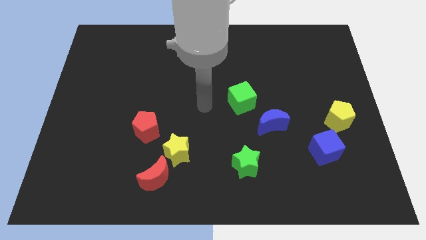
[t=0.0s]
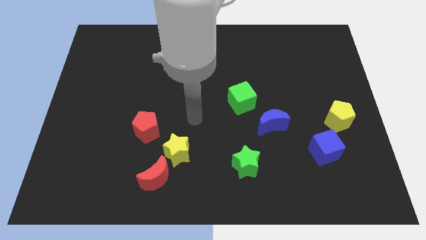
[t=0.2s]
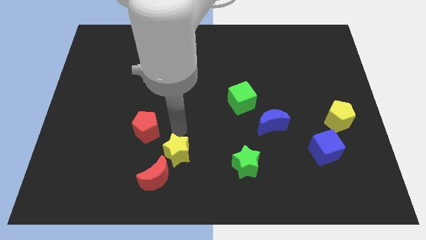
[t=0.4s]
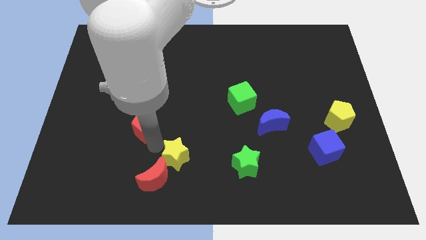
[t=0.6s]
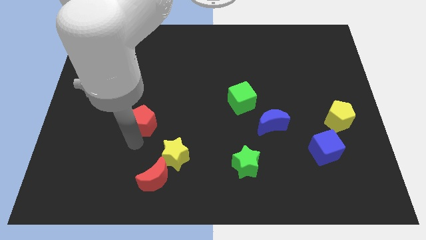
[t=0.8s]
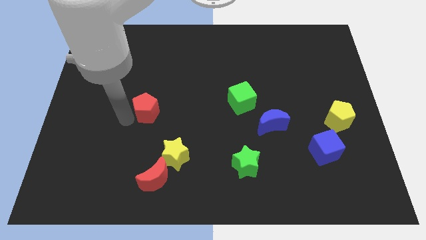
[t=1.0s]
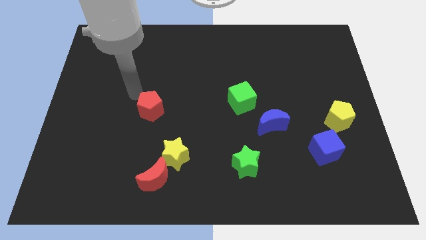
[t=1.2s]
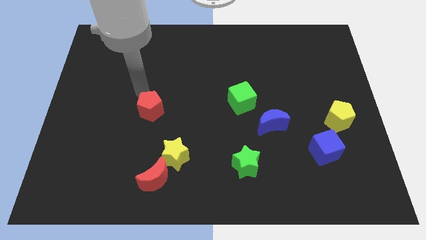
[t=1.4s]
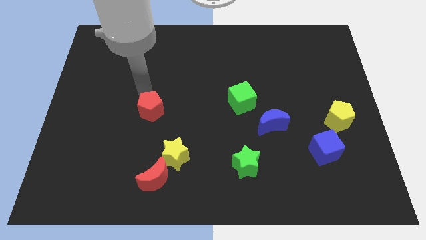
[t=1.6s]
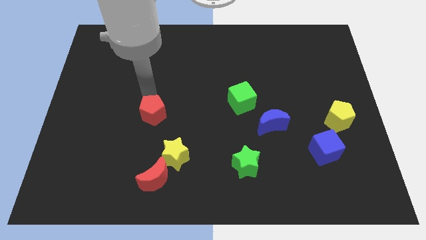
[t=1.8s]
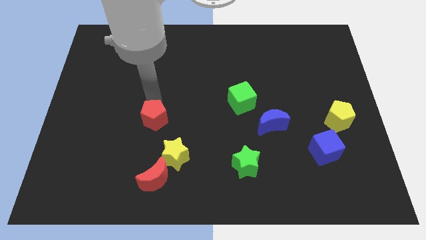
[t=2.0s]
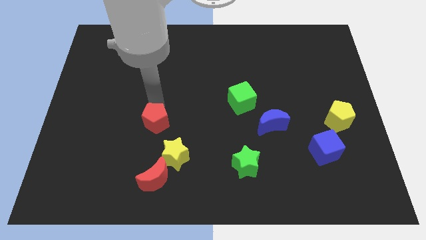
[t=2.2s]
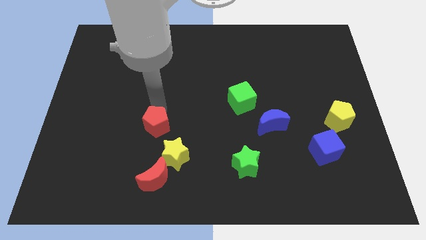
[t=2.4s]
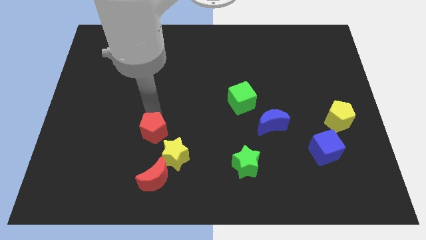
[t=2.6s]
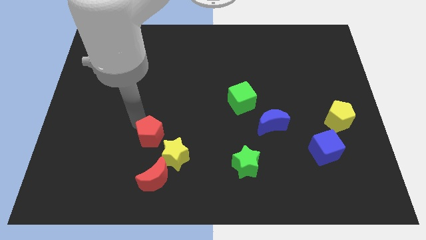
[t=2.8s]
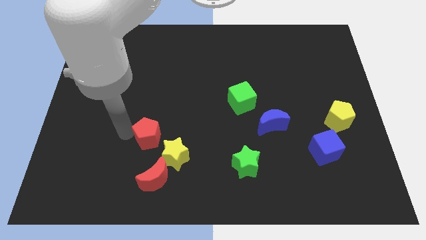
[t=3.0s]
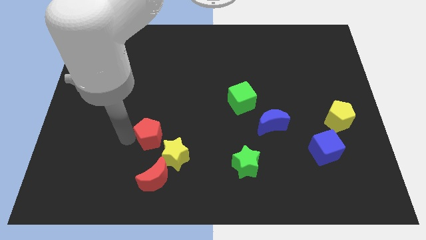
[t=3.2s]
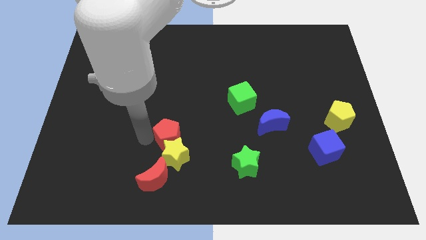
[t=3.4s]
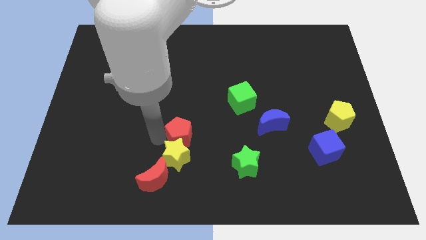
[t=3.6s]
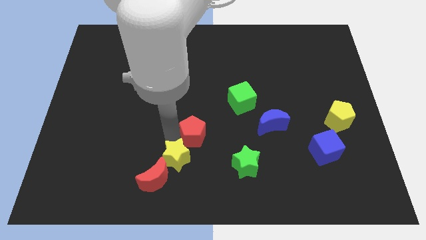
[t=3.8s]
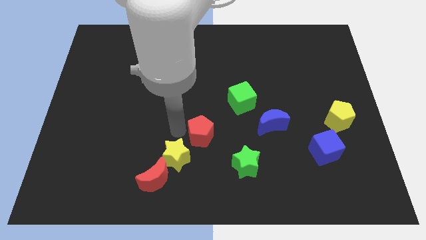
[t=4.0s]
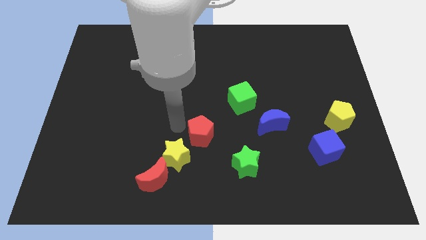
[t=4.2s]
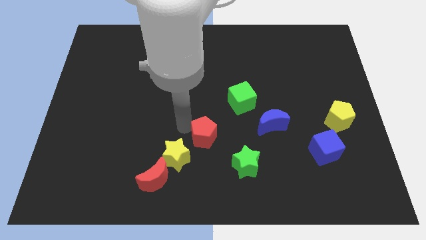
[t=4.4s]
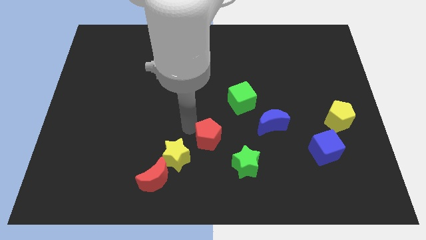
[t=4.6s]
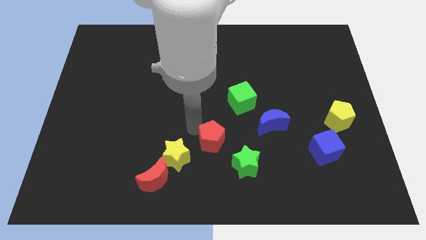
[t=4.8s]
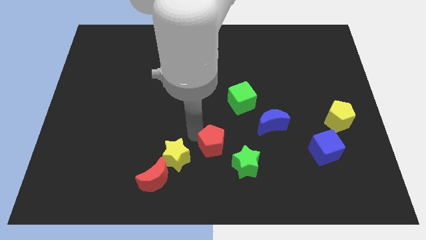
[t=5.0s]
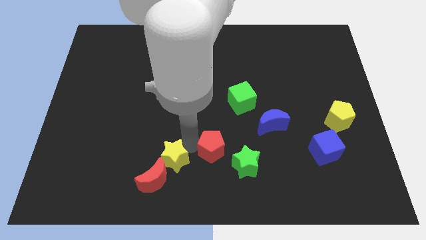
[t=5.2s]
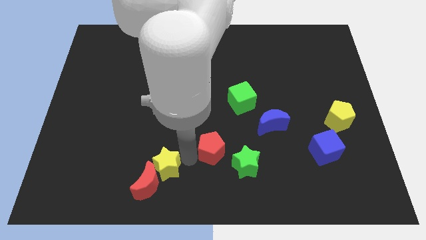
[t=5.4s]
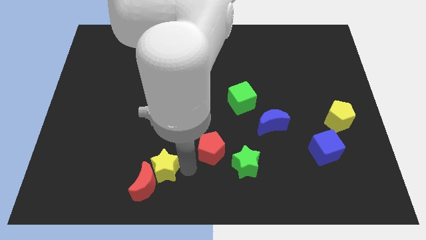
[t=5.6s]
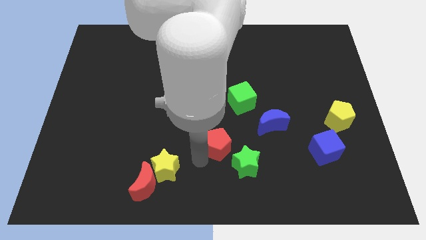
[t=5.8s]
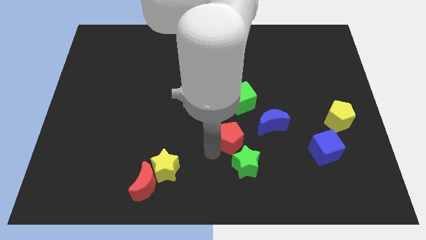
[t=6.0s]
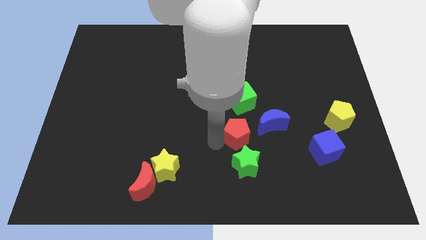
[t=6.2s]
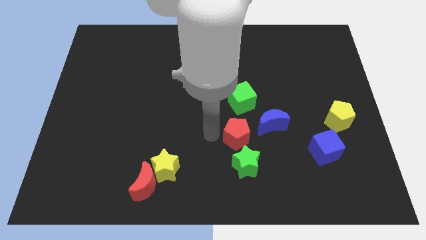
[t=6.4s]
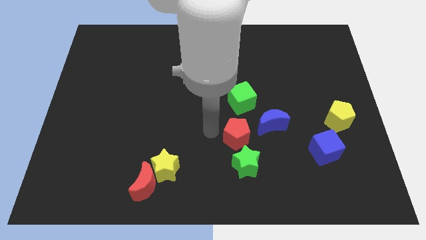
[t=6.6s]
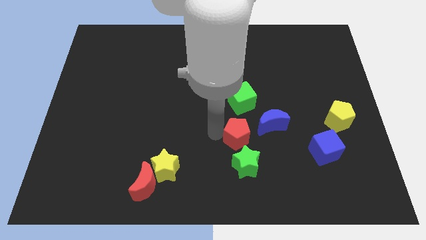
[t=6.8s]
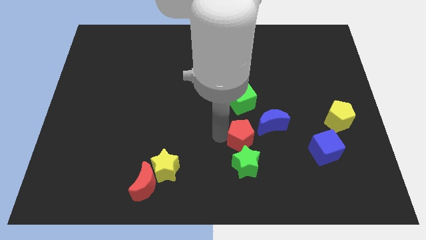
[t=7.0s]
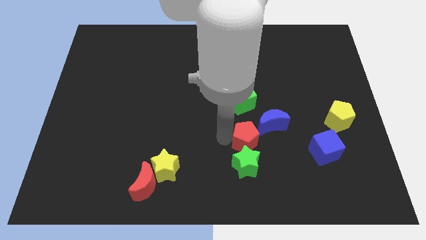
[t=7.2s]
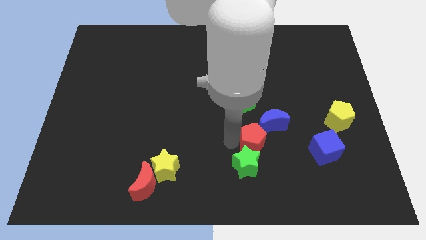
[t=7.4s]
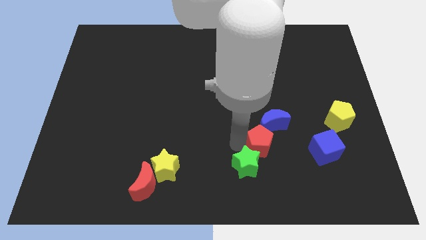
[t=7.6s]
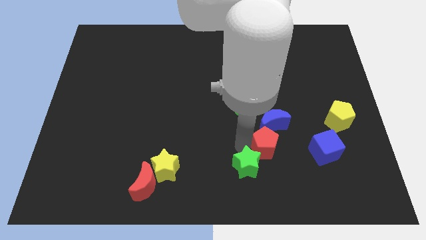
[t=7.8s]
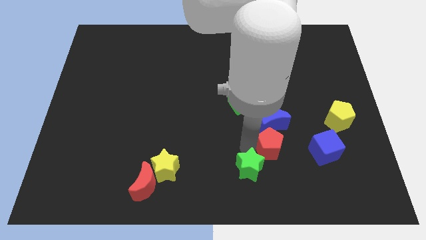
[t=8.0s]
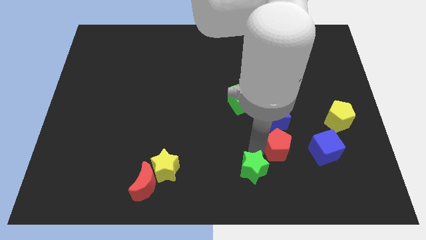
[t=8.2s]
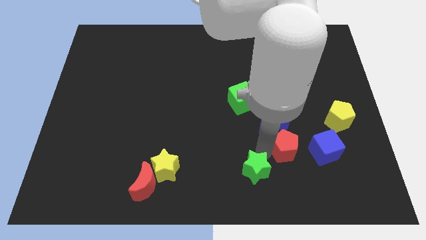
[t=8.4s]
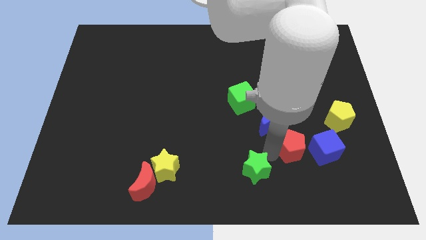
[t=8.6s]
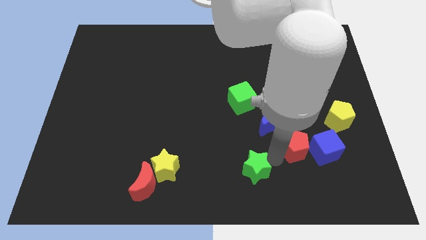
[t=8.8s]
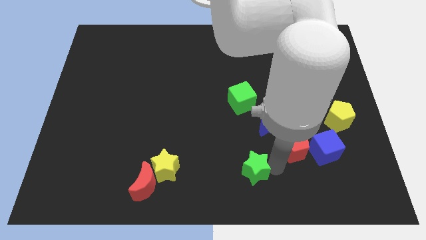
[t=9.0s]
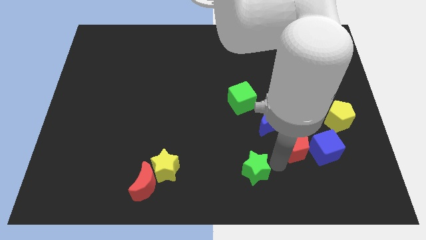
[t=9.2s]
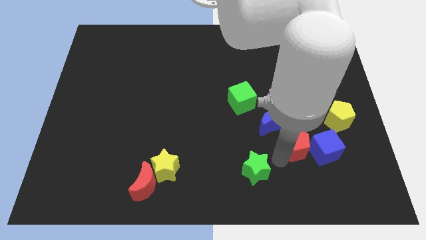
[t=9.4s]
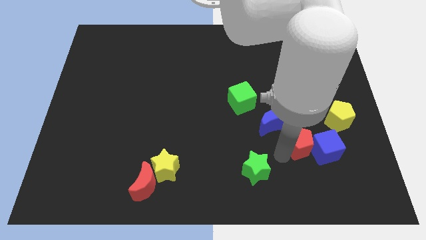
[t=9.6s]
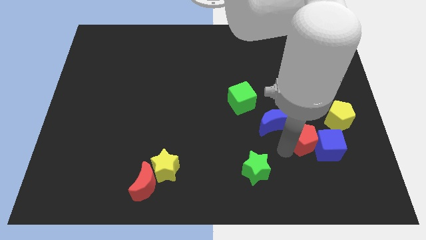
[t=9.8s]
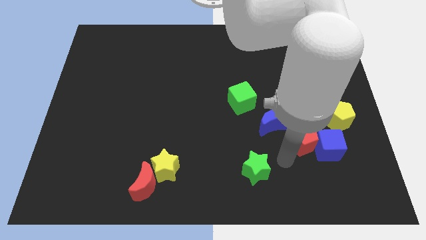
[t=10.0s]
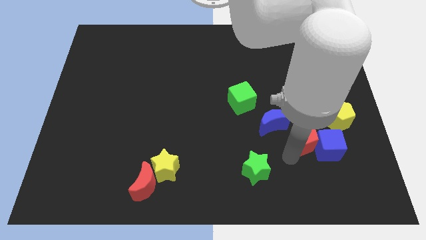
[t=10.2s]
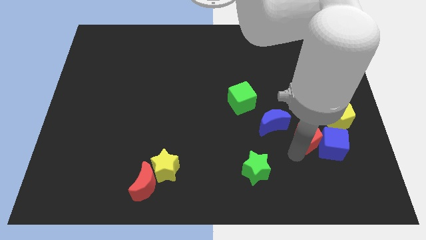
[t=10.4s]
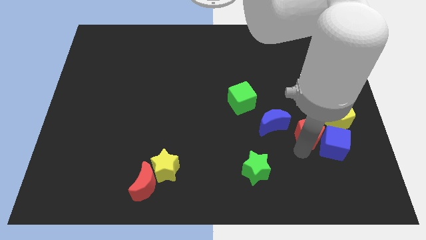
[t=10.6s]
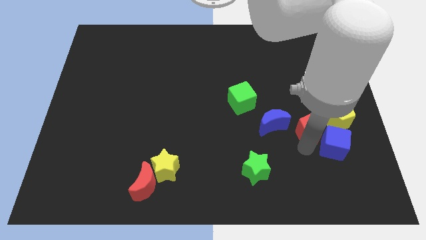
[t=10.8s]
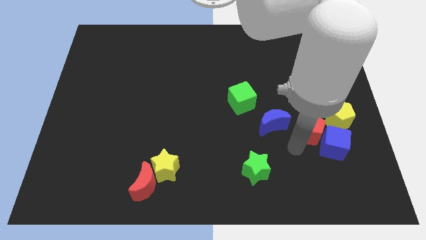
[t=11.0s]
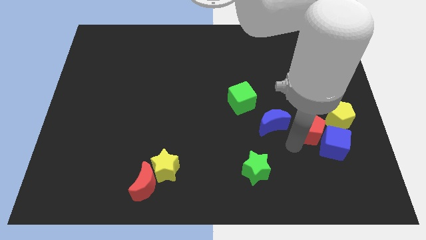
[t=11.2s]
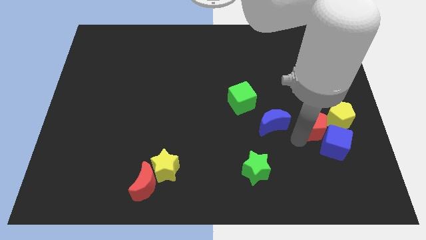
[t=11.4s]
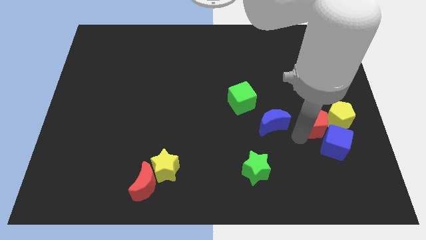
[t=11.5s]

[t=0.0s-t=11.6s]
push the red pentagon to the yellow pentagon

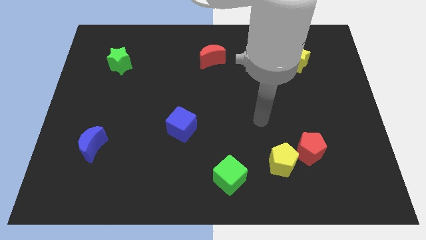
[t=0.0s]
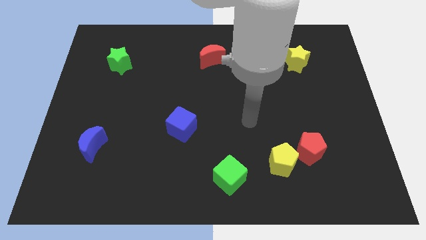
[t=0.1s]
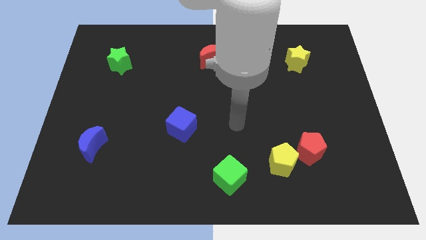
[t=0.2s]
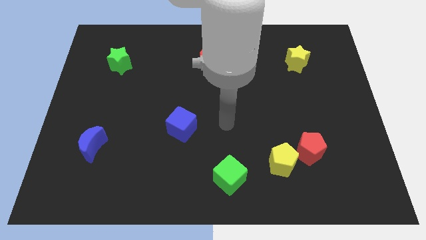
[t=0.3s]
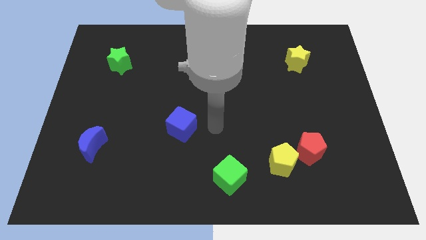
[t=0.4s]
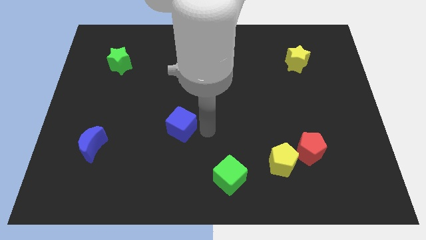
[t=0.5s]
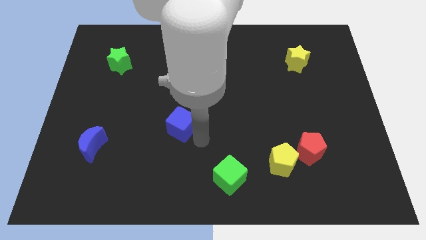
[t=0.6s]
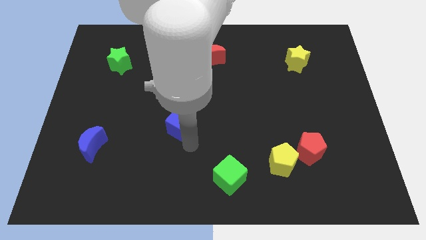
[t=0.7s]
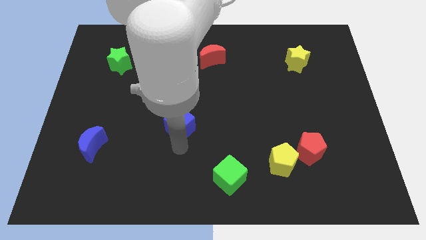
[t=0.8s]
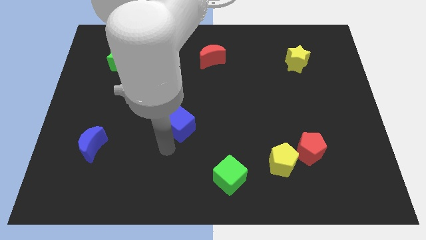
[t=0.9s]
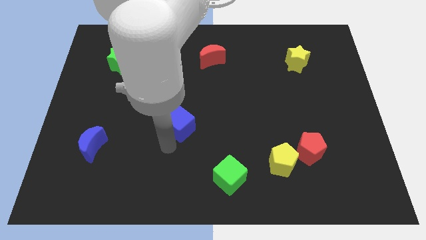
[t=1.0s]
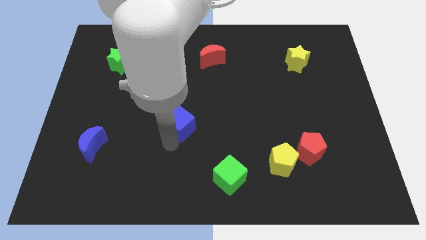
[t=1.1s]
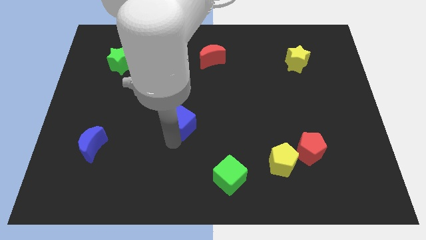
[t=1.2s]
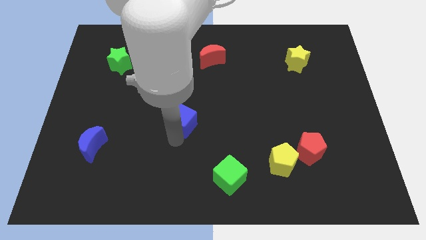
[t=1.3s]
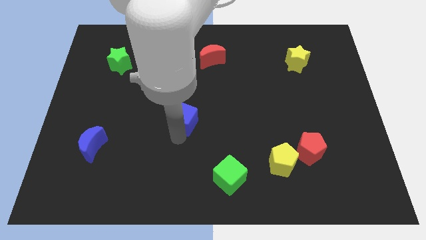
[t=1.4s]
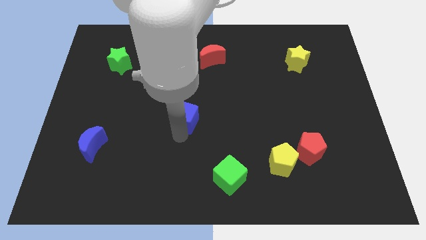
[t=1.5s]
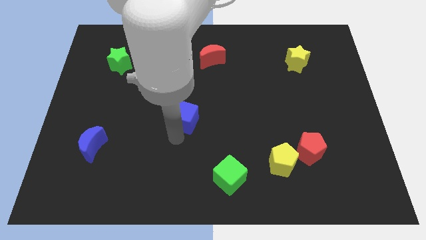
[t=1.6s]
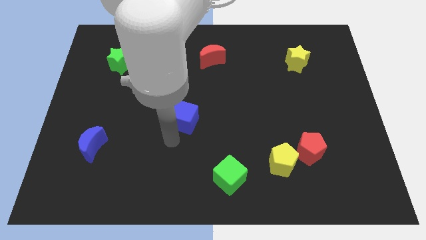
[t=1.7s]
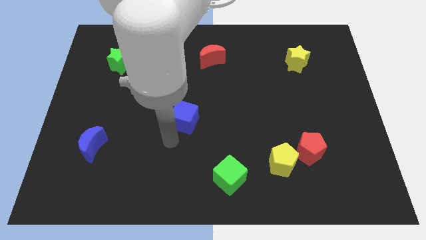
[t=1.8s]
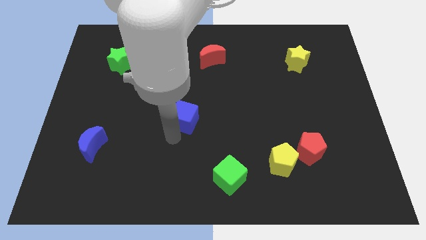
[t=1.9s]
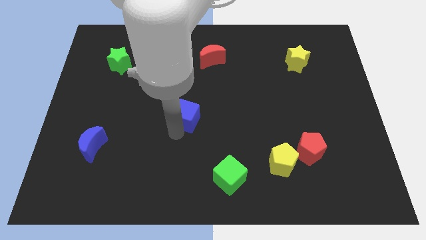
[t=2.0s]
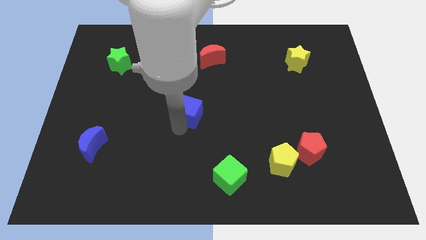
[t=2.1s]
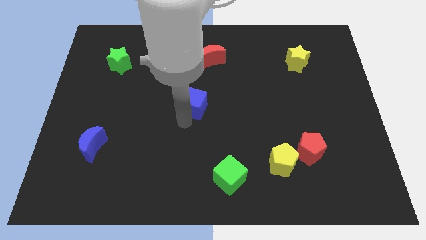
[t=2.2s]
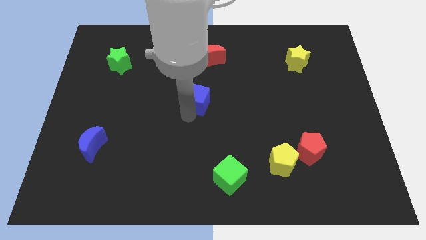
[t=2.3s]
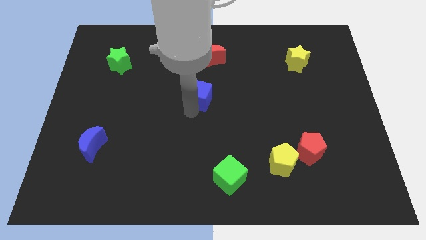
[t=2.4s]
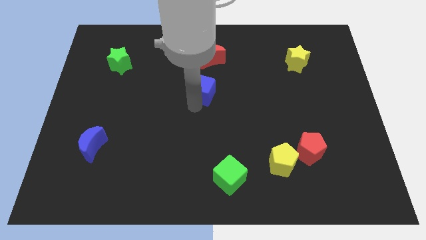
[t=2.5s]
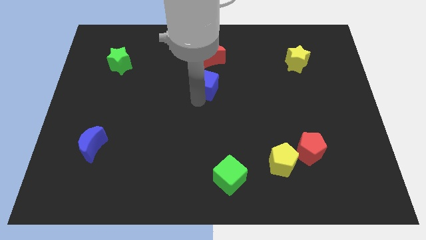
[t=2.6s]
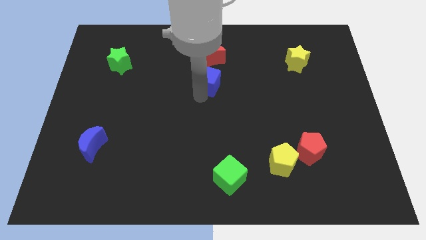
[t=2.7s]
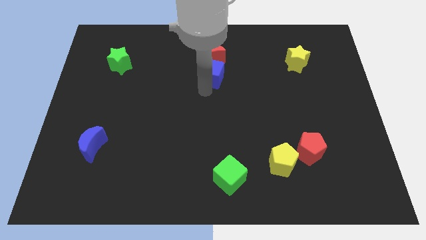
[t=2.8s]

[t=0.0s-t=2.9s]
push the blue cube next to the red moon
